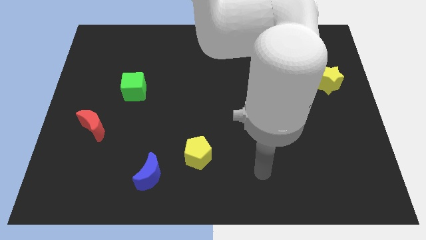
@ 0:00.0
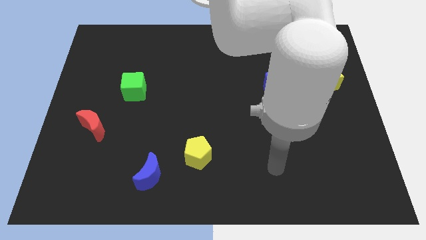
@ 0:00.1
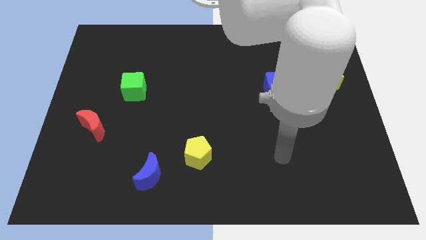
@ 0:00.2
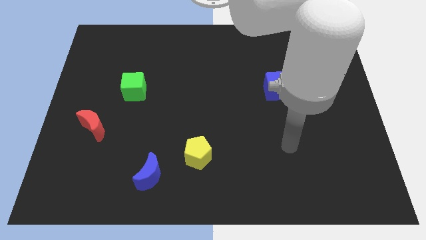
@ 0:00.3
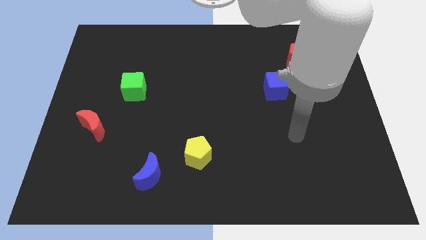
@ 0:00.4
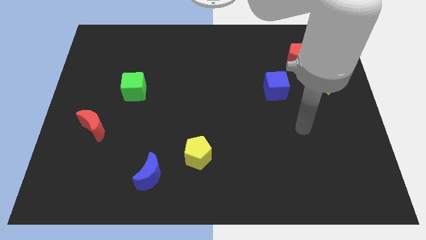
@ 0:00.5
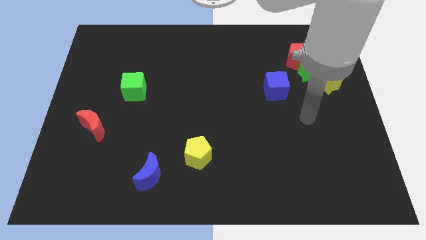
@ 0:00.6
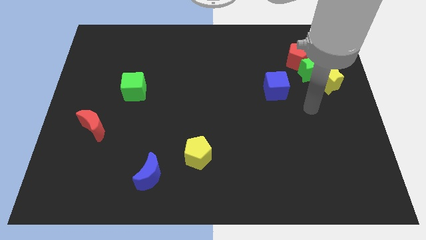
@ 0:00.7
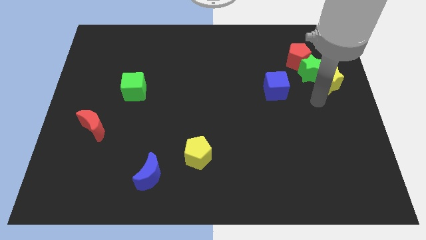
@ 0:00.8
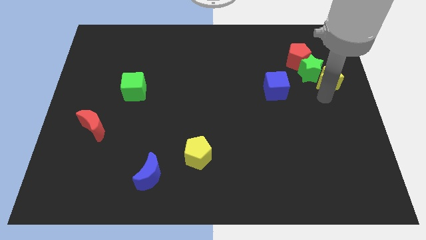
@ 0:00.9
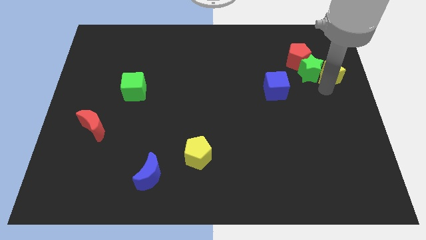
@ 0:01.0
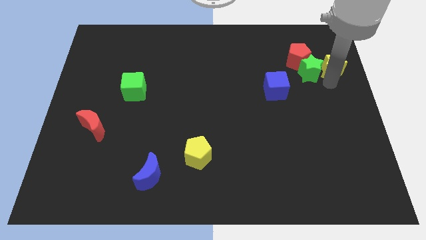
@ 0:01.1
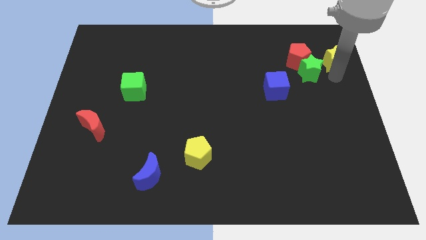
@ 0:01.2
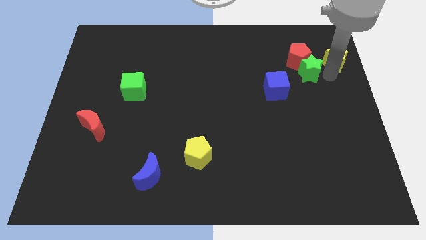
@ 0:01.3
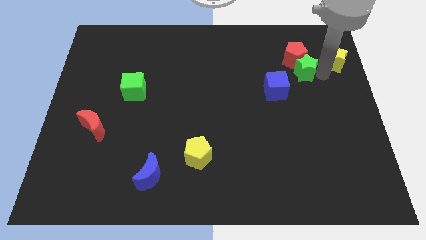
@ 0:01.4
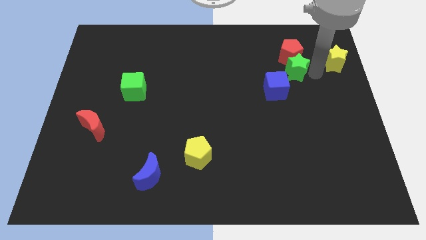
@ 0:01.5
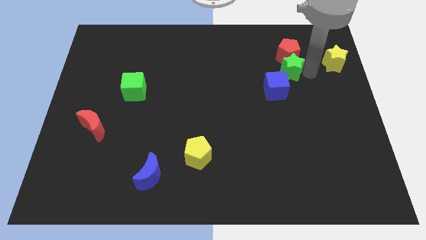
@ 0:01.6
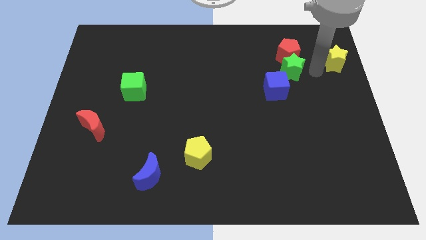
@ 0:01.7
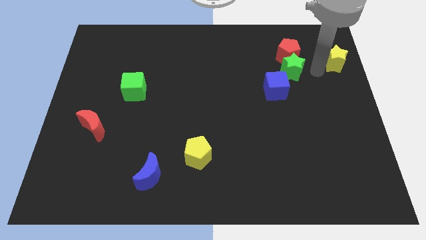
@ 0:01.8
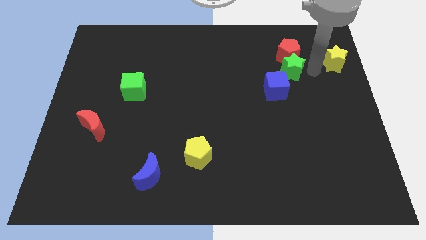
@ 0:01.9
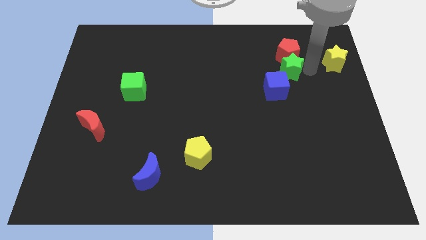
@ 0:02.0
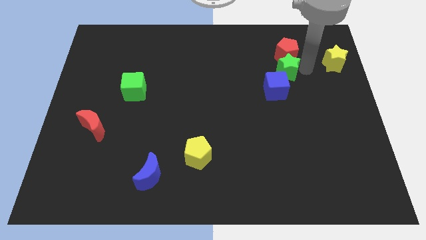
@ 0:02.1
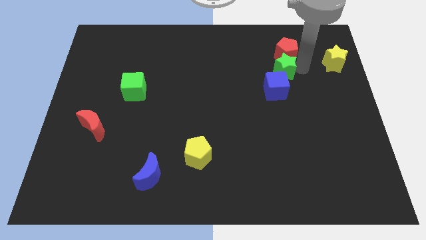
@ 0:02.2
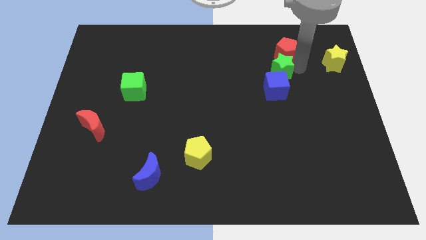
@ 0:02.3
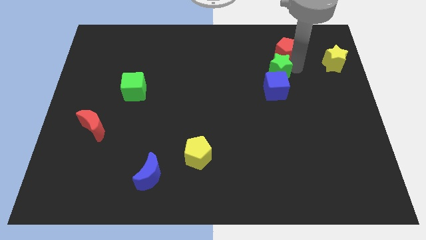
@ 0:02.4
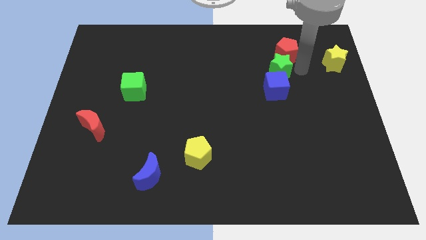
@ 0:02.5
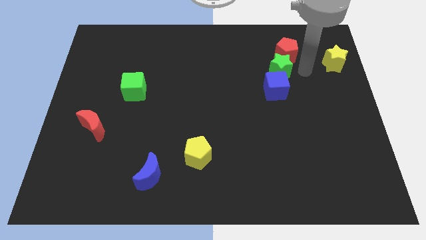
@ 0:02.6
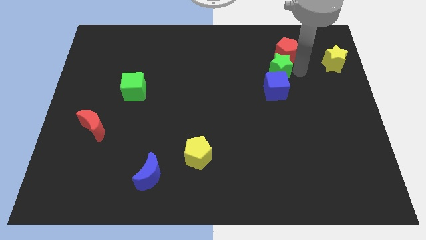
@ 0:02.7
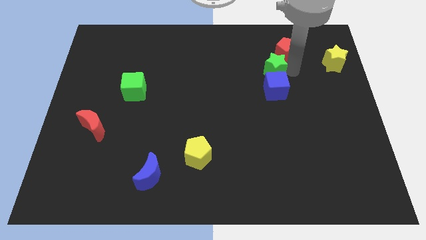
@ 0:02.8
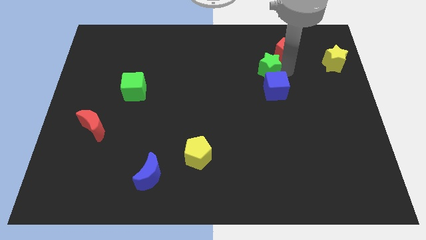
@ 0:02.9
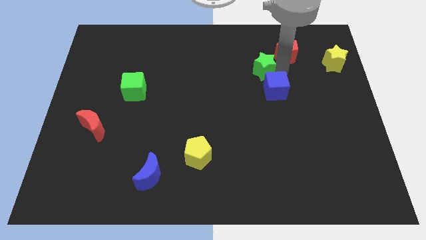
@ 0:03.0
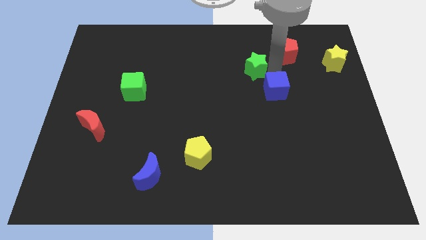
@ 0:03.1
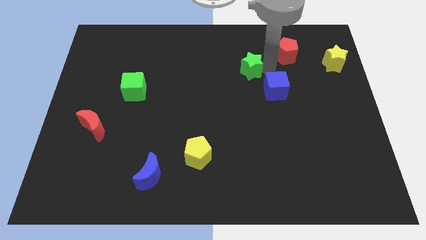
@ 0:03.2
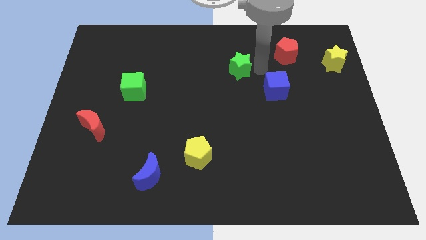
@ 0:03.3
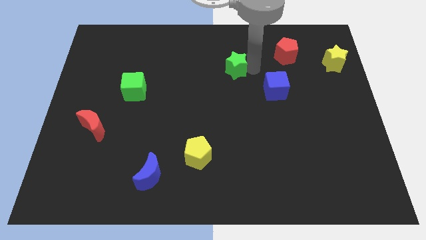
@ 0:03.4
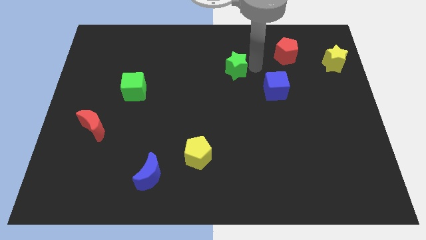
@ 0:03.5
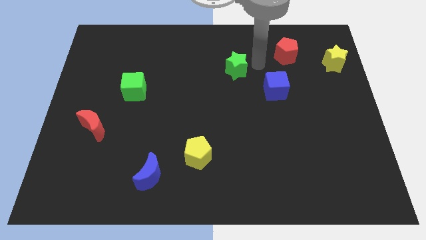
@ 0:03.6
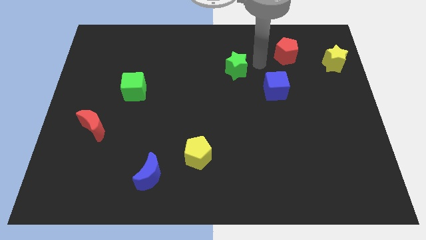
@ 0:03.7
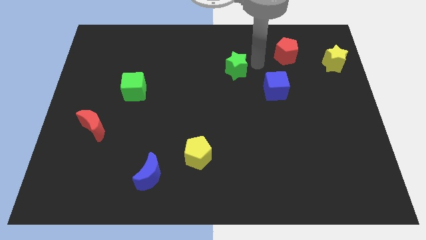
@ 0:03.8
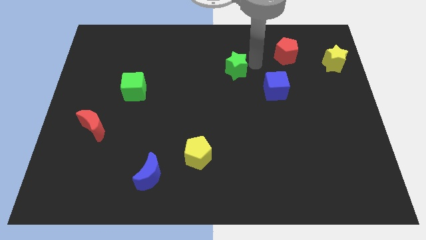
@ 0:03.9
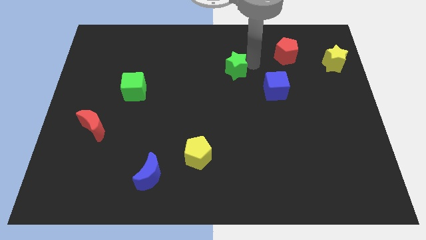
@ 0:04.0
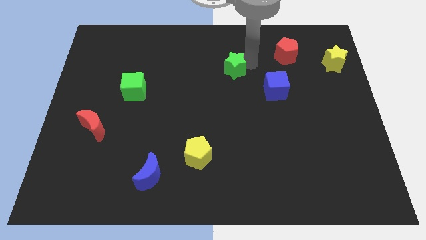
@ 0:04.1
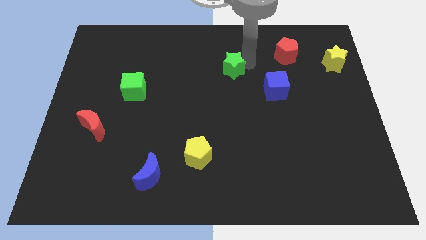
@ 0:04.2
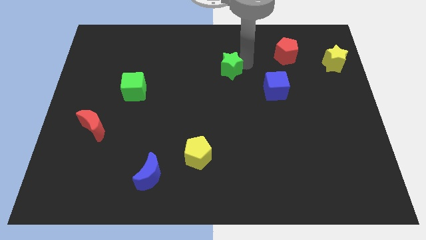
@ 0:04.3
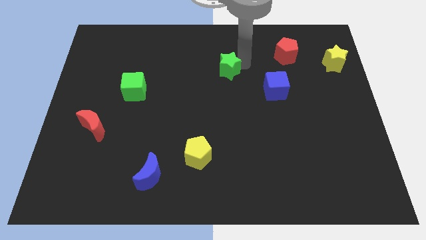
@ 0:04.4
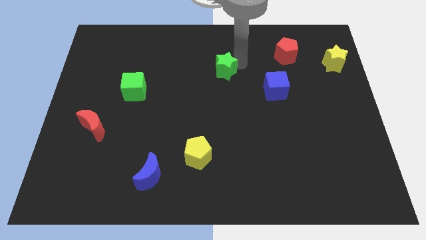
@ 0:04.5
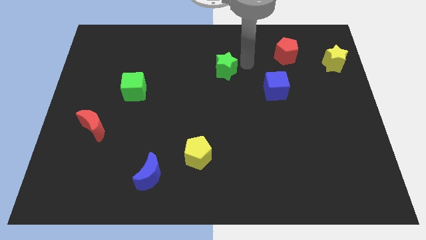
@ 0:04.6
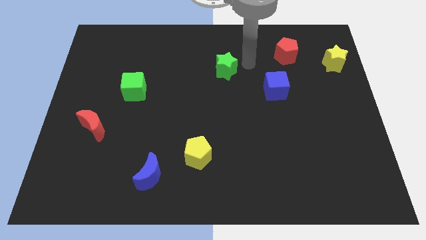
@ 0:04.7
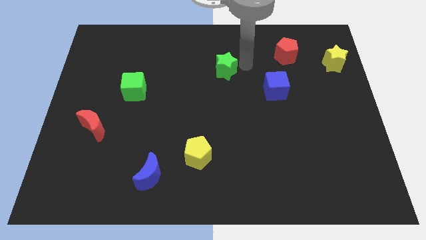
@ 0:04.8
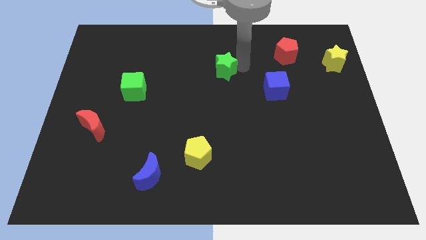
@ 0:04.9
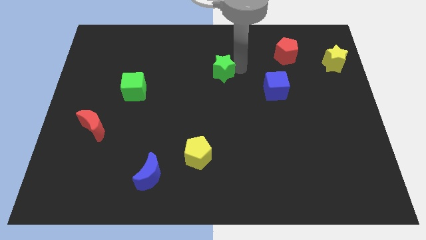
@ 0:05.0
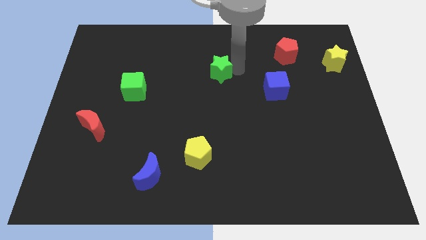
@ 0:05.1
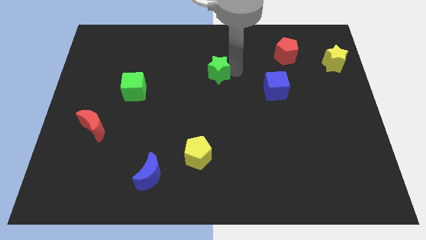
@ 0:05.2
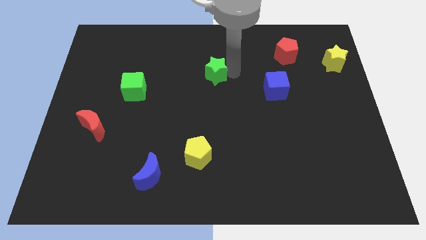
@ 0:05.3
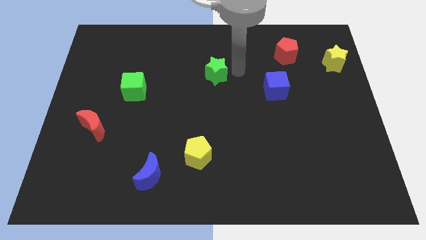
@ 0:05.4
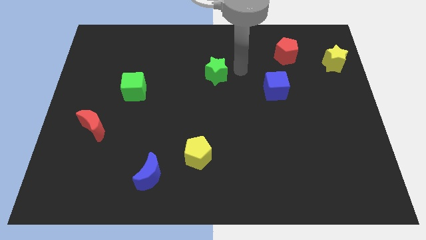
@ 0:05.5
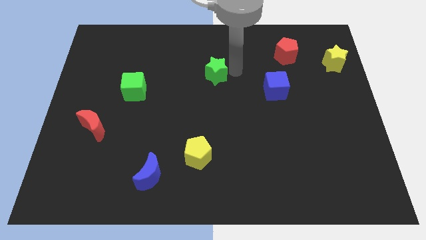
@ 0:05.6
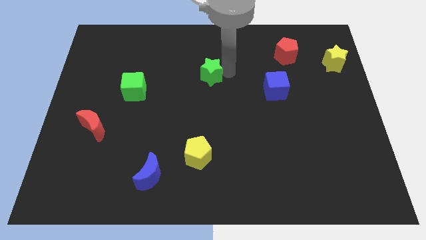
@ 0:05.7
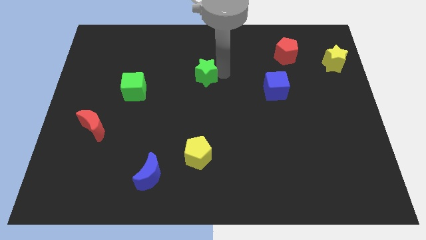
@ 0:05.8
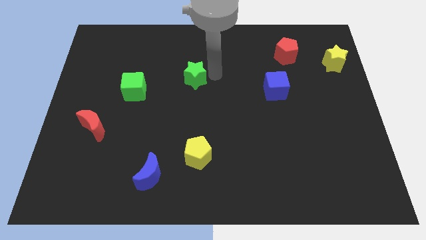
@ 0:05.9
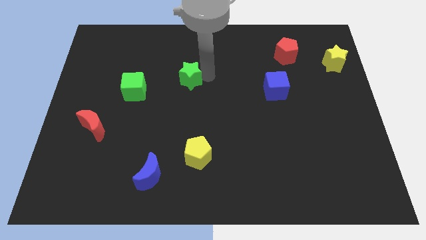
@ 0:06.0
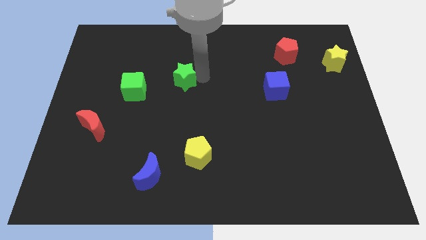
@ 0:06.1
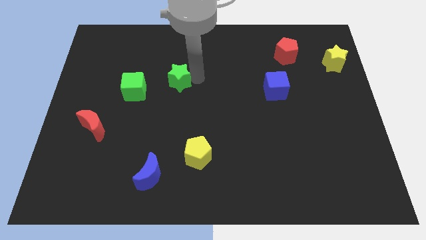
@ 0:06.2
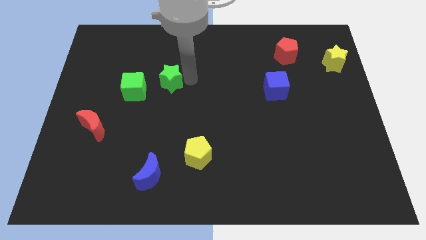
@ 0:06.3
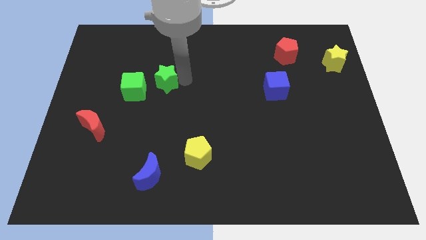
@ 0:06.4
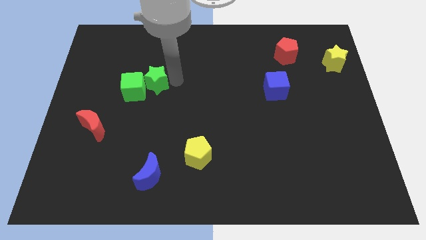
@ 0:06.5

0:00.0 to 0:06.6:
put the green star to the green cube

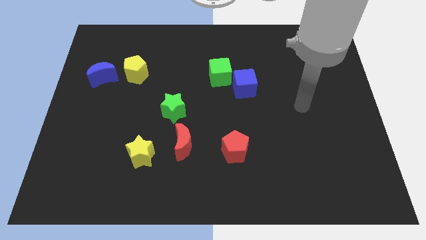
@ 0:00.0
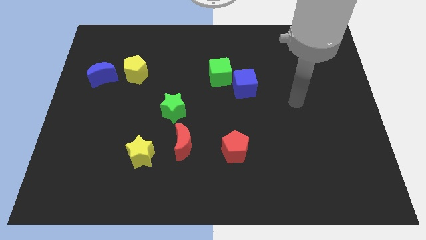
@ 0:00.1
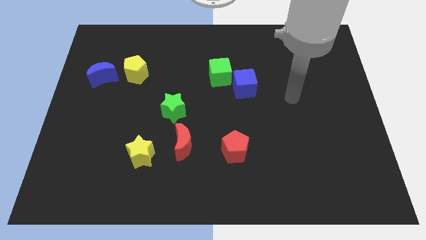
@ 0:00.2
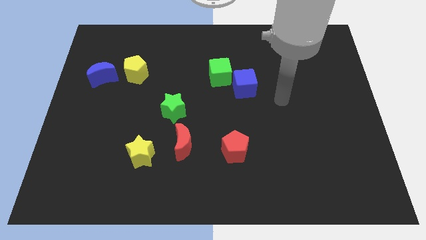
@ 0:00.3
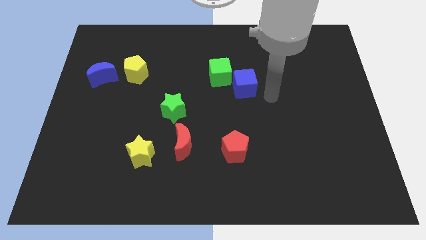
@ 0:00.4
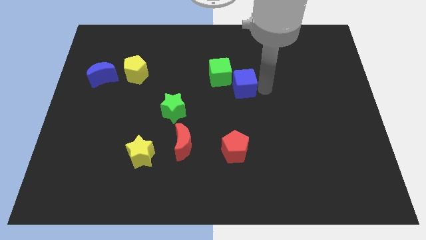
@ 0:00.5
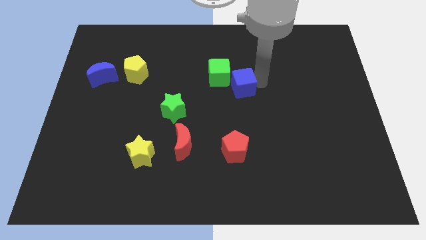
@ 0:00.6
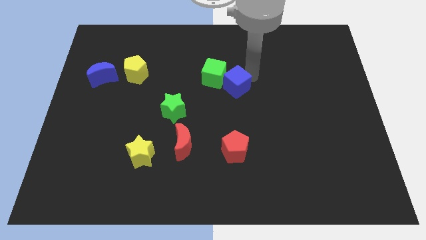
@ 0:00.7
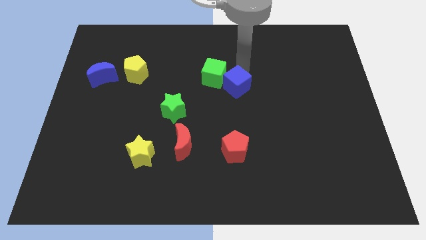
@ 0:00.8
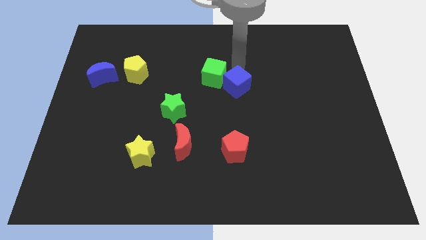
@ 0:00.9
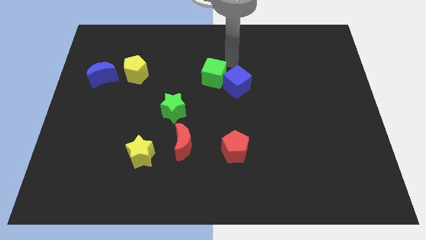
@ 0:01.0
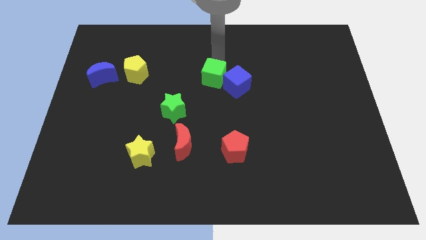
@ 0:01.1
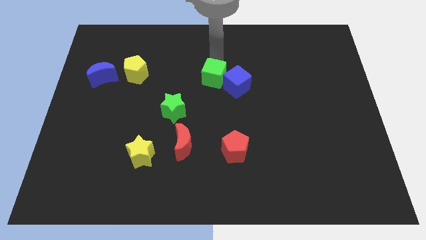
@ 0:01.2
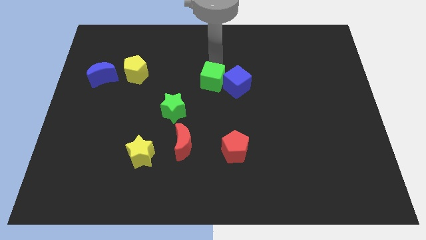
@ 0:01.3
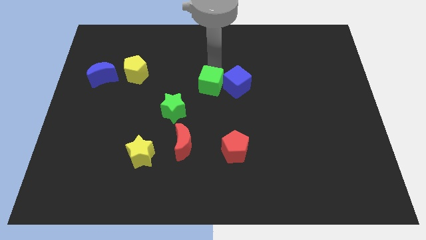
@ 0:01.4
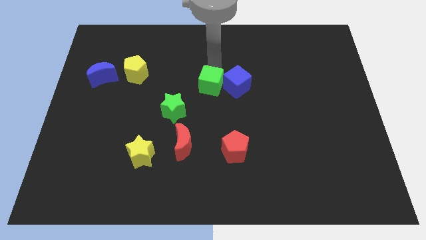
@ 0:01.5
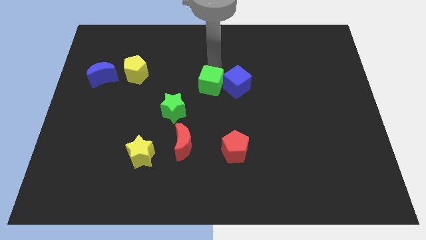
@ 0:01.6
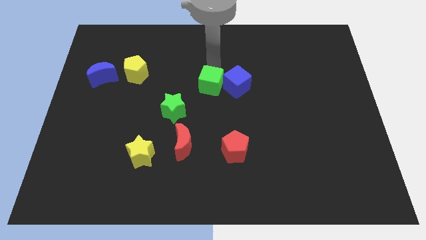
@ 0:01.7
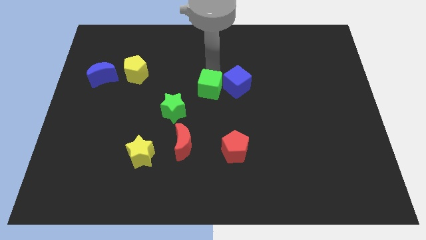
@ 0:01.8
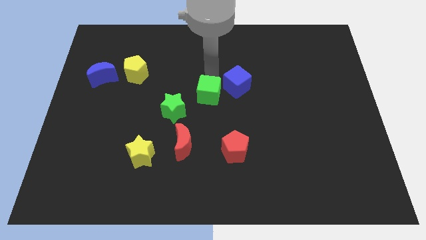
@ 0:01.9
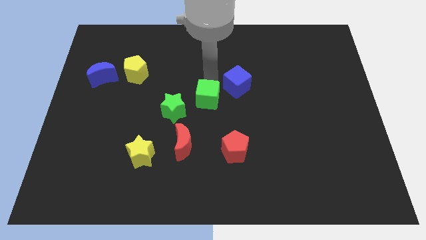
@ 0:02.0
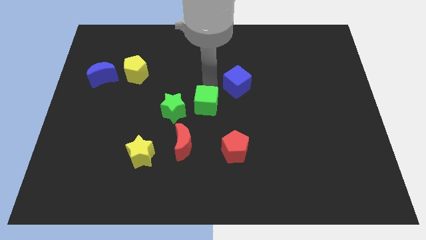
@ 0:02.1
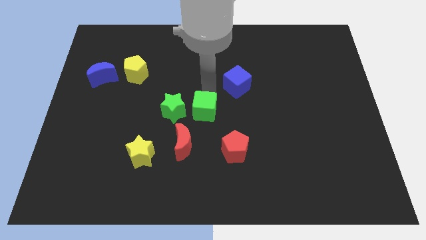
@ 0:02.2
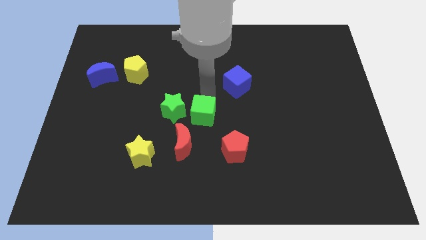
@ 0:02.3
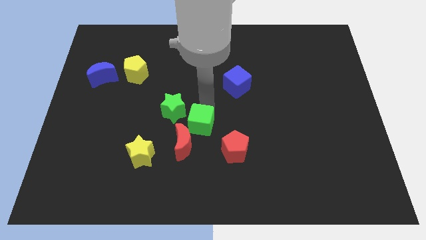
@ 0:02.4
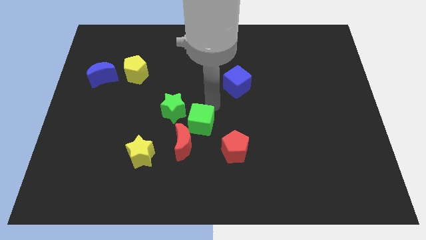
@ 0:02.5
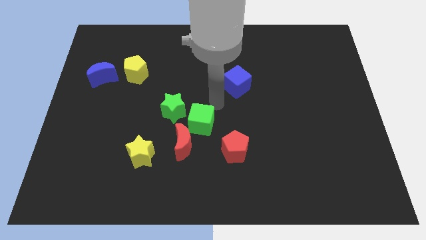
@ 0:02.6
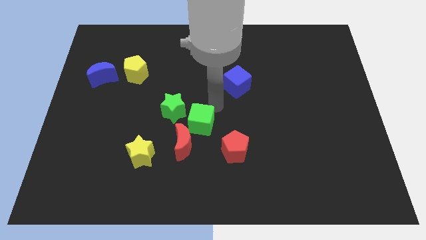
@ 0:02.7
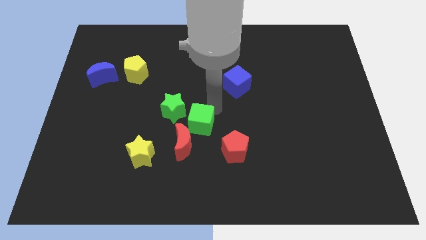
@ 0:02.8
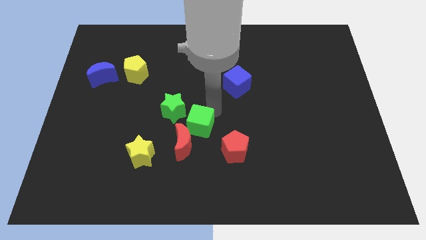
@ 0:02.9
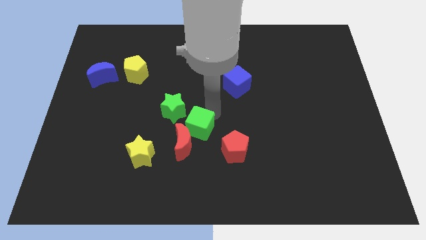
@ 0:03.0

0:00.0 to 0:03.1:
move the green cube close to the red moon
